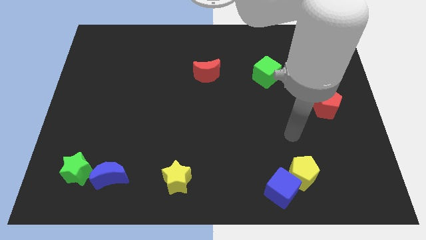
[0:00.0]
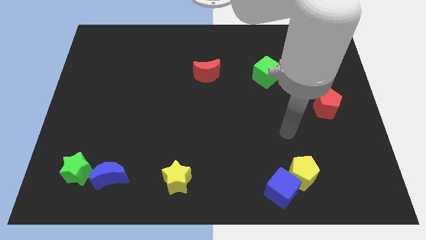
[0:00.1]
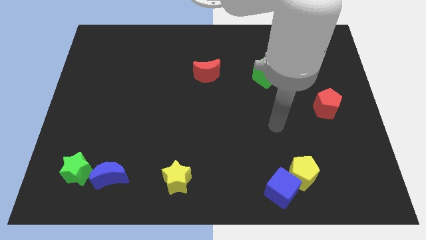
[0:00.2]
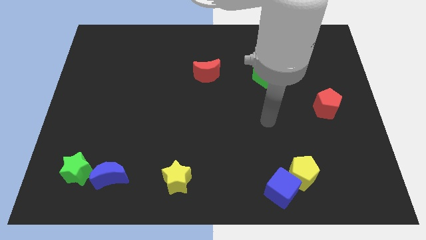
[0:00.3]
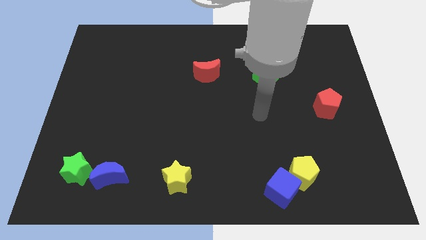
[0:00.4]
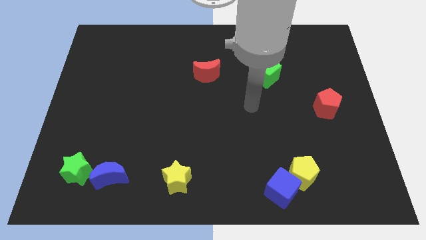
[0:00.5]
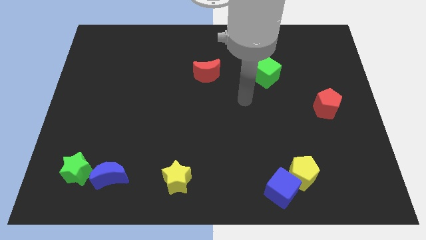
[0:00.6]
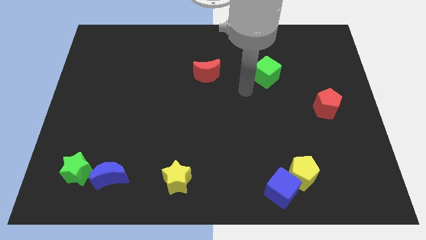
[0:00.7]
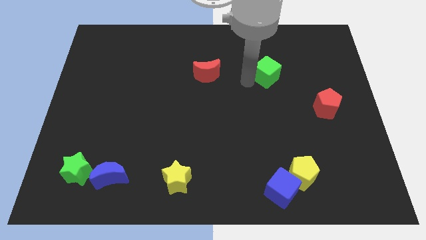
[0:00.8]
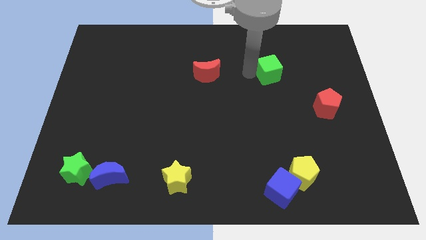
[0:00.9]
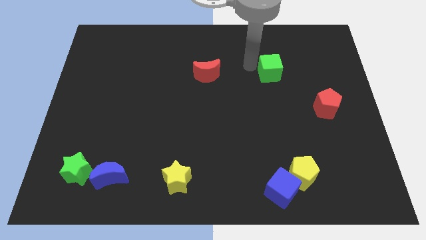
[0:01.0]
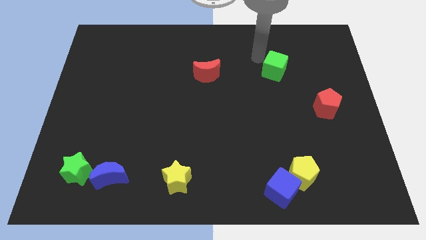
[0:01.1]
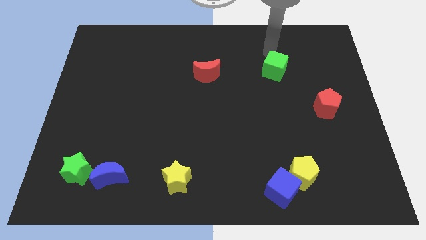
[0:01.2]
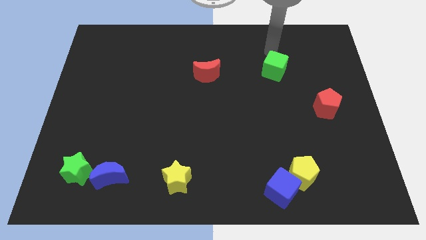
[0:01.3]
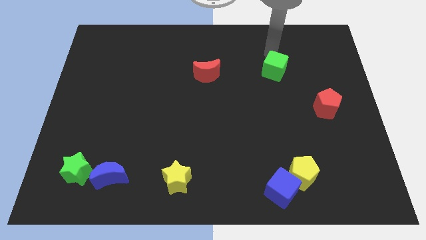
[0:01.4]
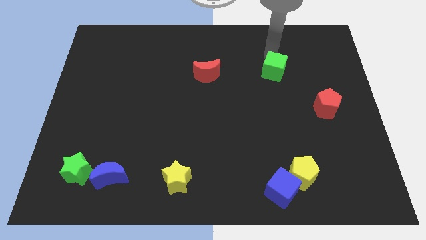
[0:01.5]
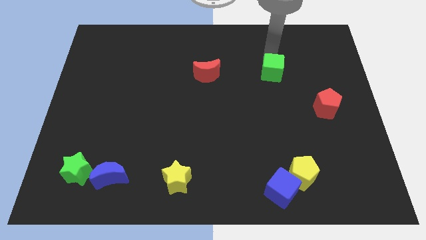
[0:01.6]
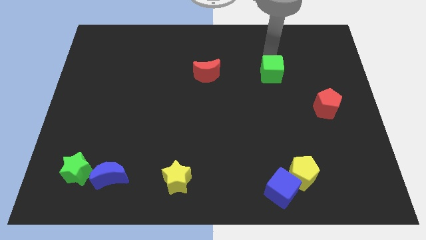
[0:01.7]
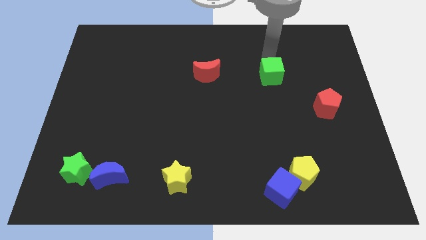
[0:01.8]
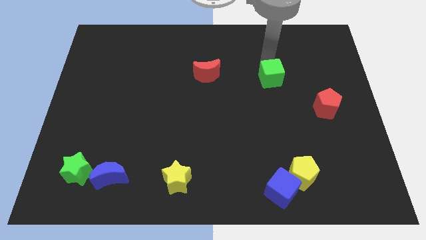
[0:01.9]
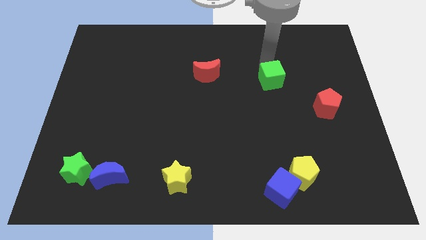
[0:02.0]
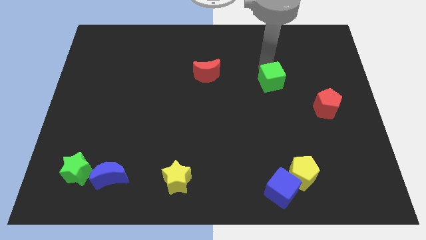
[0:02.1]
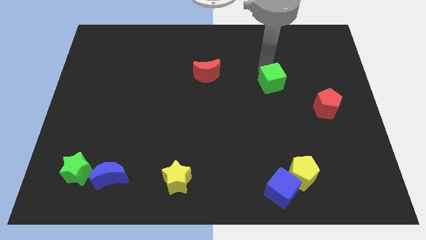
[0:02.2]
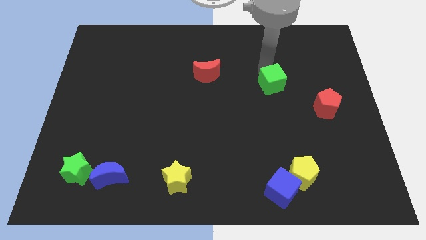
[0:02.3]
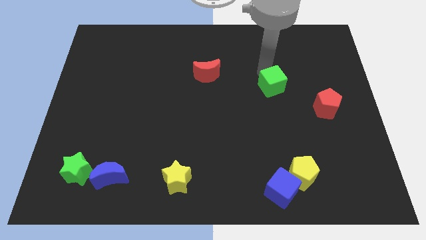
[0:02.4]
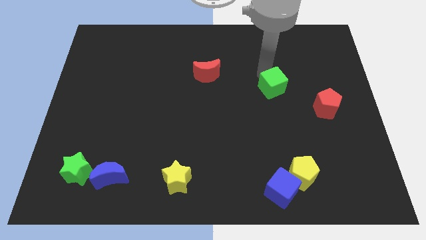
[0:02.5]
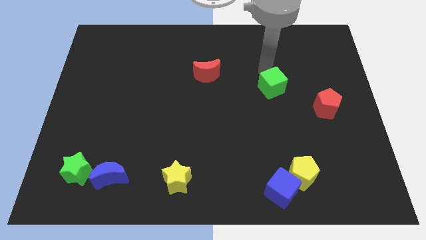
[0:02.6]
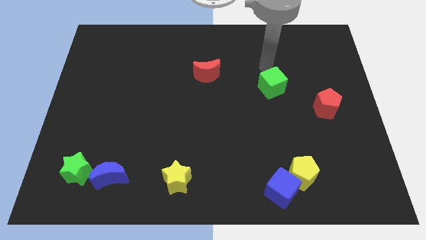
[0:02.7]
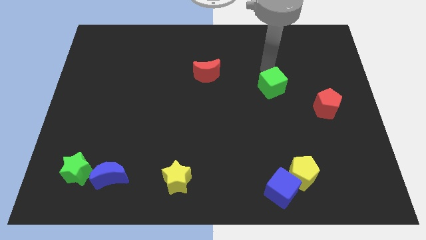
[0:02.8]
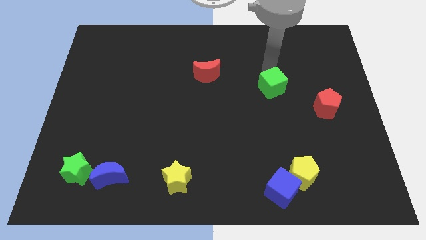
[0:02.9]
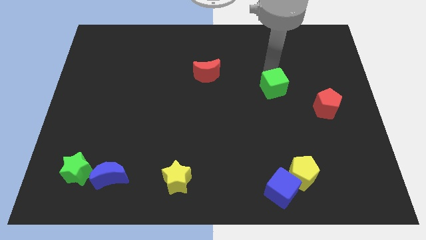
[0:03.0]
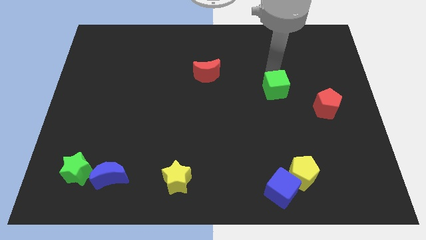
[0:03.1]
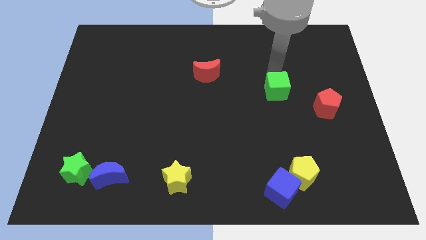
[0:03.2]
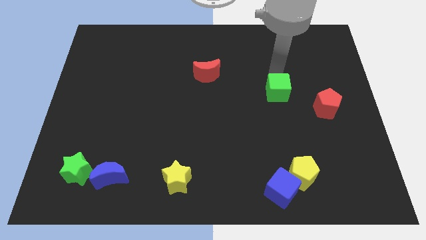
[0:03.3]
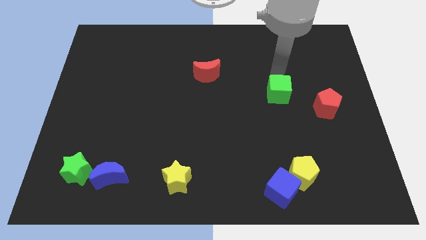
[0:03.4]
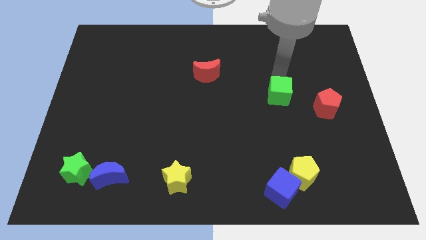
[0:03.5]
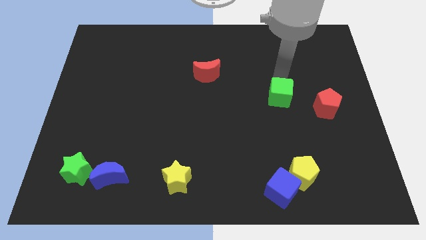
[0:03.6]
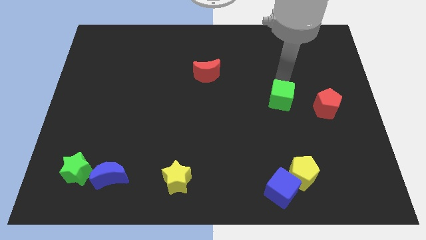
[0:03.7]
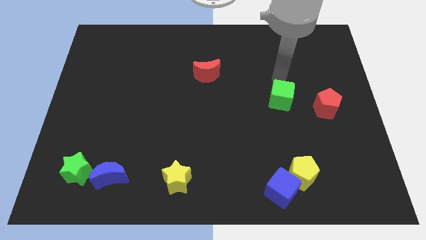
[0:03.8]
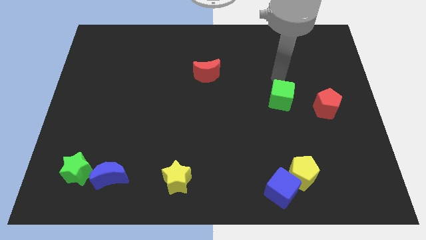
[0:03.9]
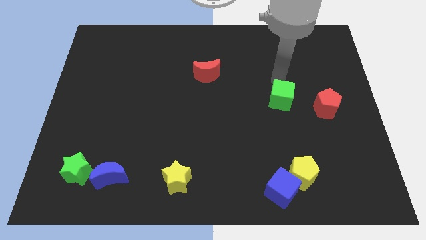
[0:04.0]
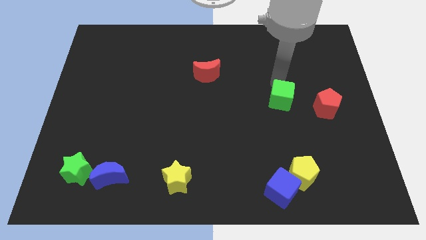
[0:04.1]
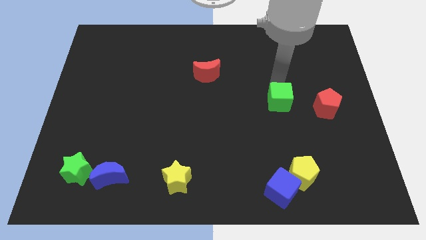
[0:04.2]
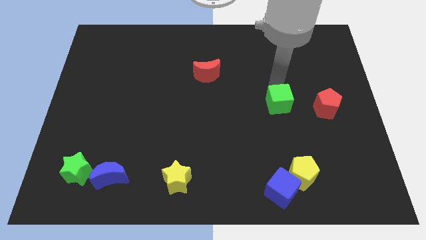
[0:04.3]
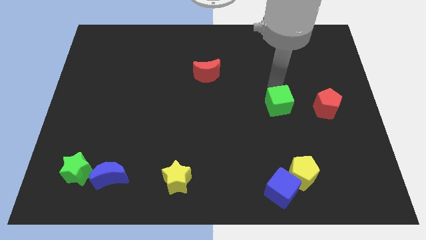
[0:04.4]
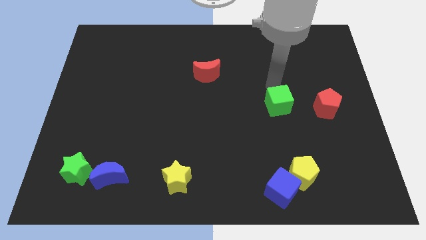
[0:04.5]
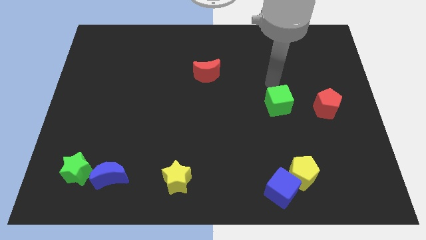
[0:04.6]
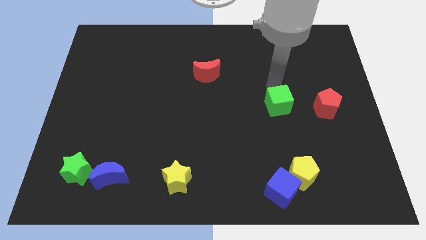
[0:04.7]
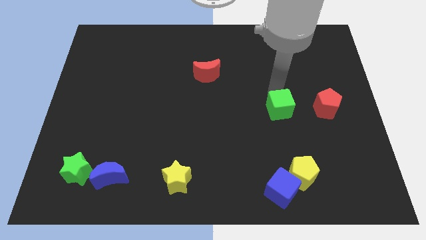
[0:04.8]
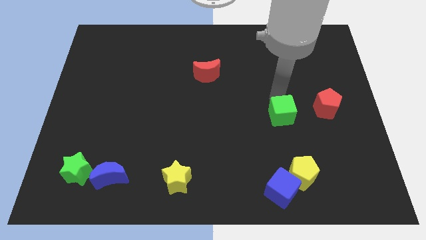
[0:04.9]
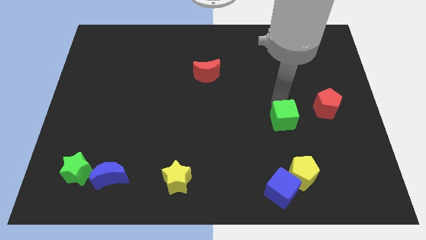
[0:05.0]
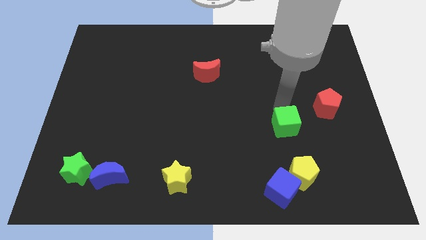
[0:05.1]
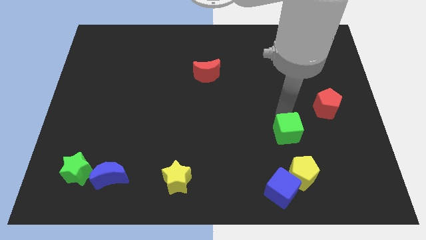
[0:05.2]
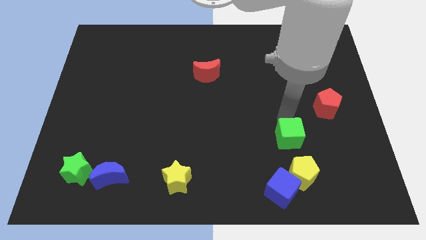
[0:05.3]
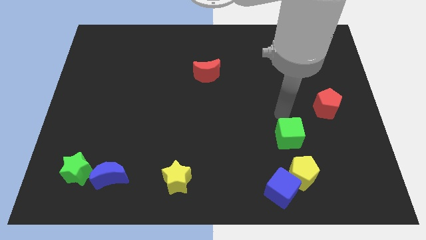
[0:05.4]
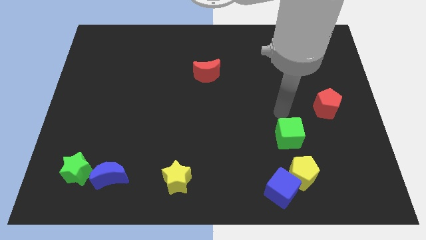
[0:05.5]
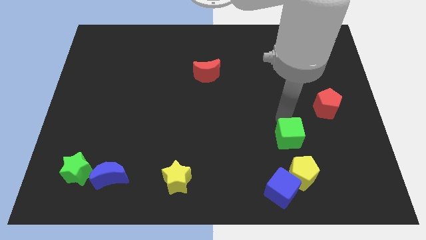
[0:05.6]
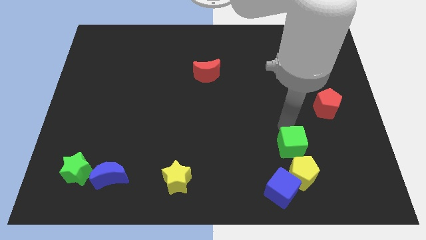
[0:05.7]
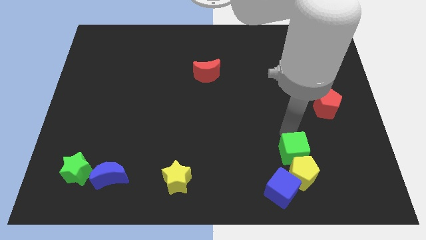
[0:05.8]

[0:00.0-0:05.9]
slide the green cube to the yellow pentagon

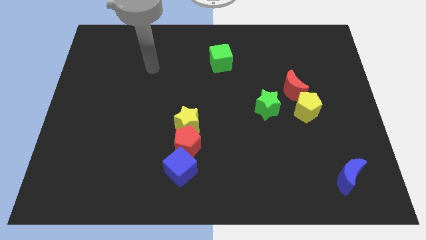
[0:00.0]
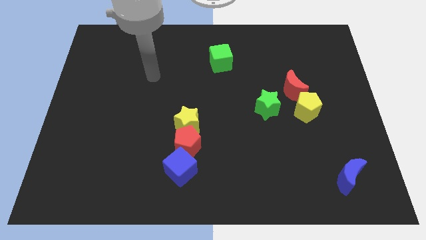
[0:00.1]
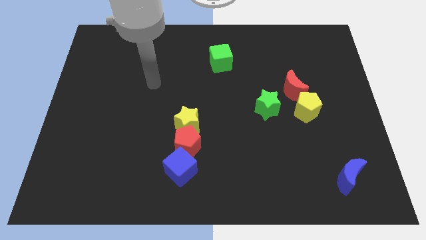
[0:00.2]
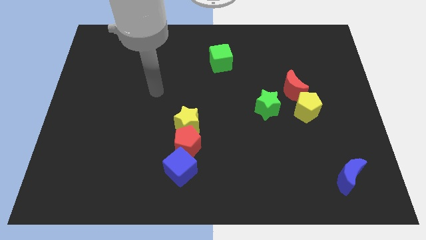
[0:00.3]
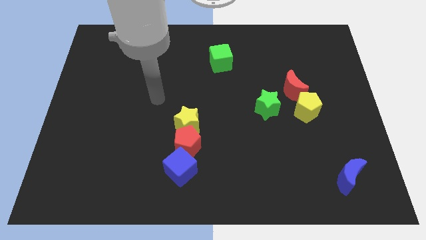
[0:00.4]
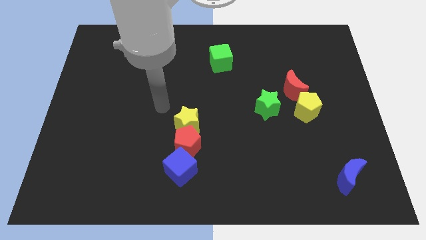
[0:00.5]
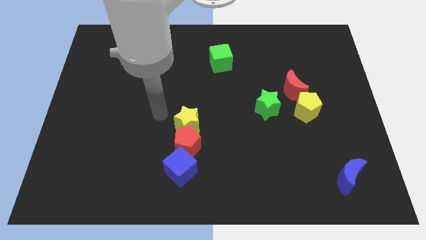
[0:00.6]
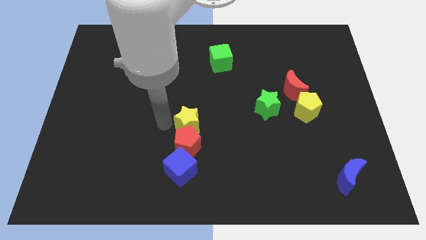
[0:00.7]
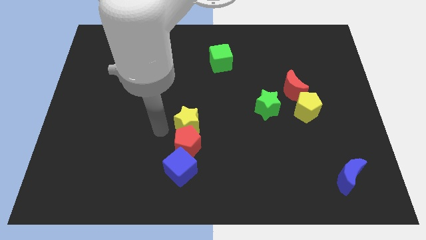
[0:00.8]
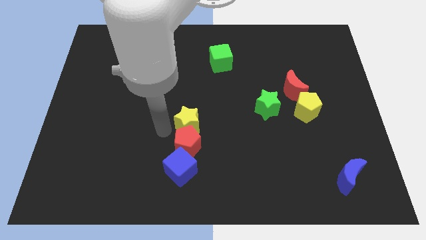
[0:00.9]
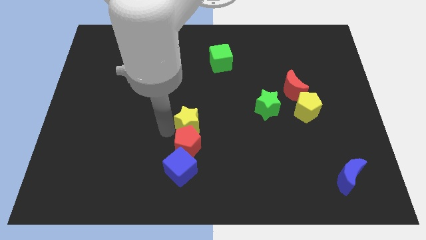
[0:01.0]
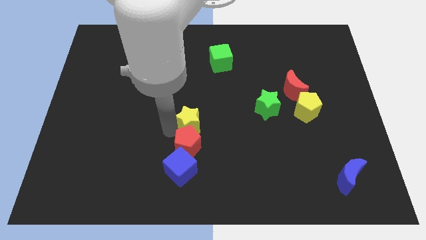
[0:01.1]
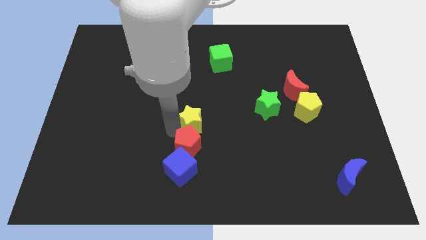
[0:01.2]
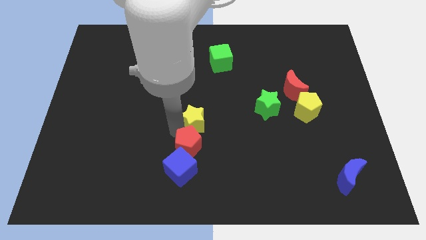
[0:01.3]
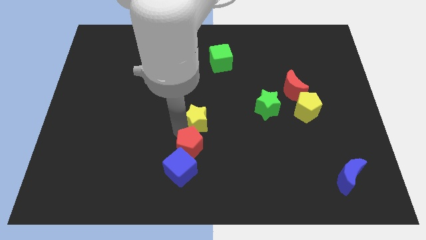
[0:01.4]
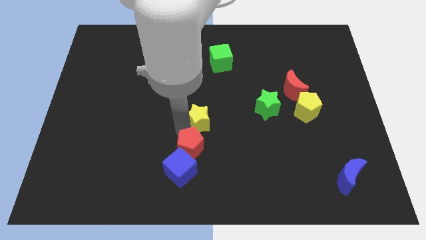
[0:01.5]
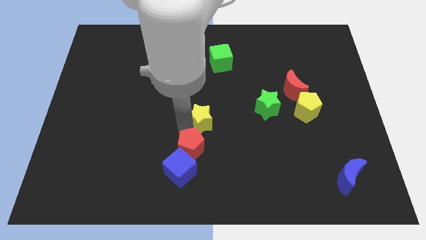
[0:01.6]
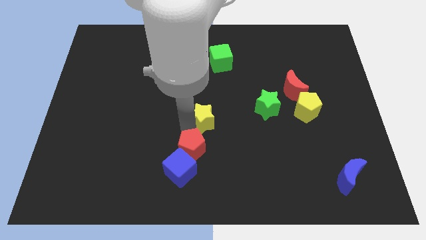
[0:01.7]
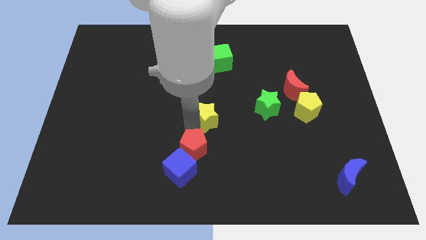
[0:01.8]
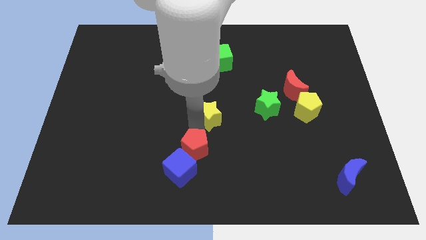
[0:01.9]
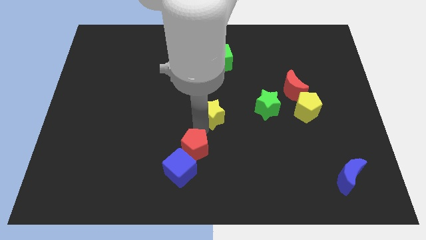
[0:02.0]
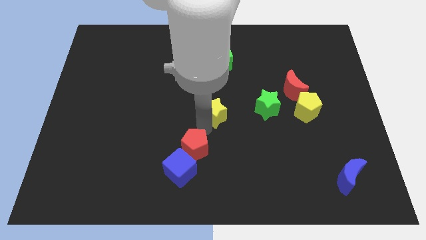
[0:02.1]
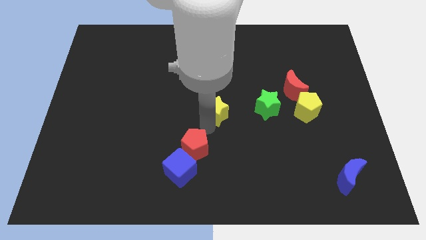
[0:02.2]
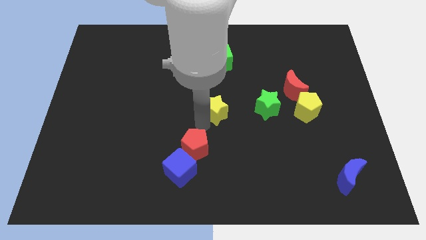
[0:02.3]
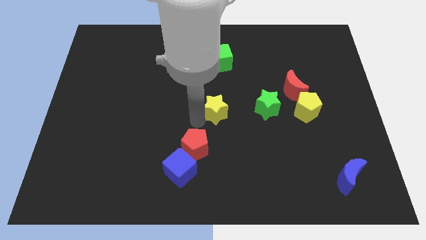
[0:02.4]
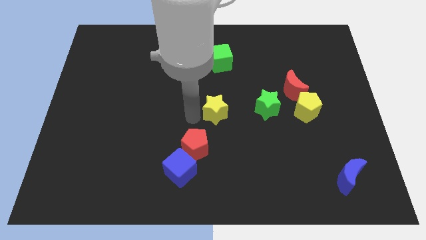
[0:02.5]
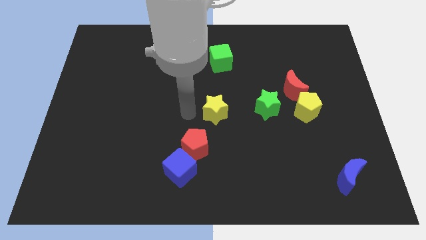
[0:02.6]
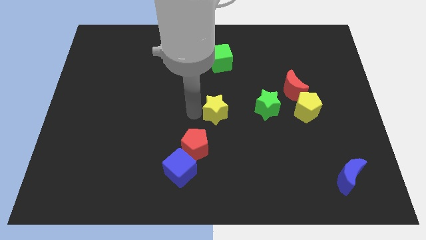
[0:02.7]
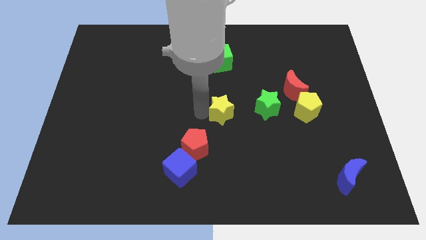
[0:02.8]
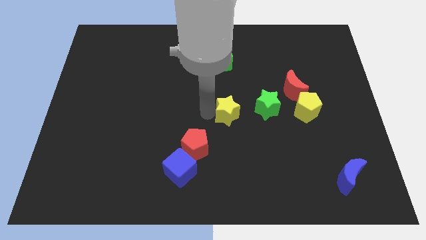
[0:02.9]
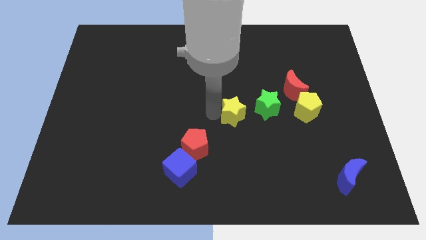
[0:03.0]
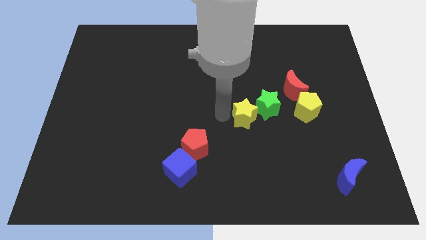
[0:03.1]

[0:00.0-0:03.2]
slide the yellow star next to the green star
